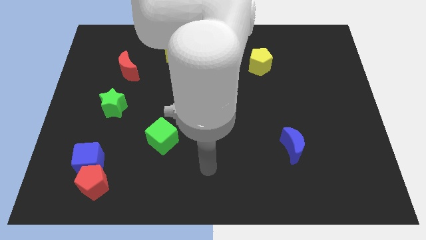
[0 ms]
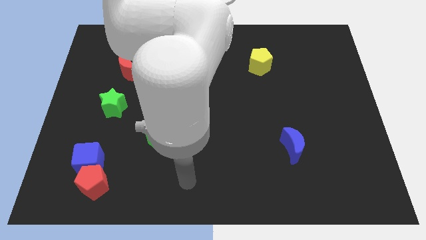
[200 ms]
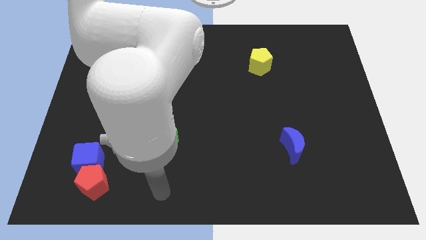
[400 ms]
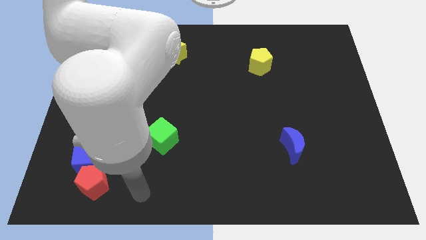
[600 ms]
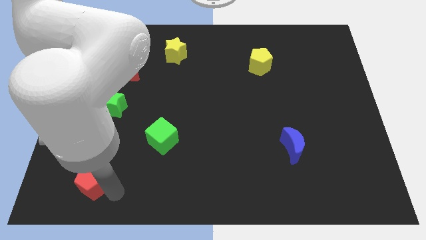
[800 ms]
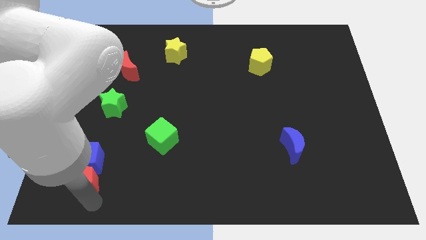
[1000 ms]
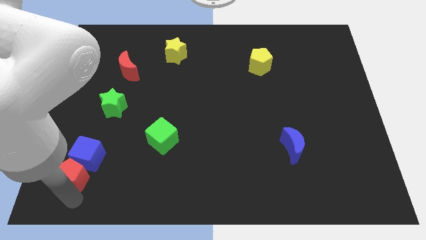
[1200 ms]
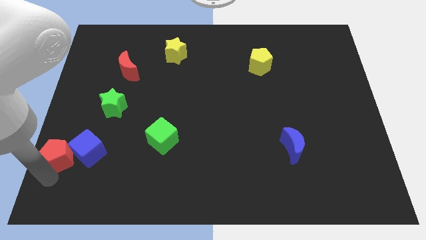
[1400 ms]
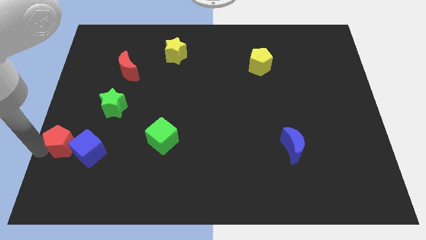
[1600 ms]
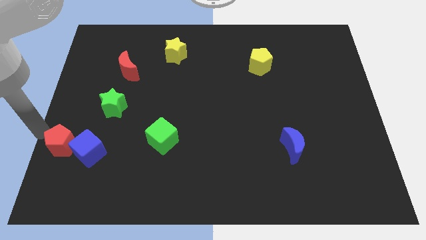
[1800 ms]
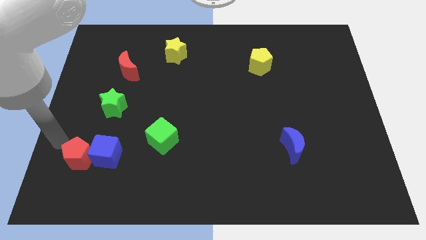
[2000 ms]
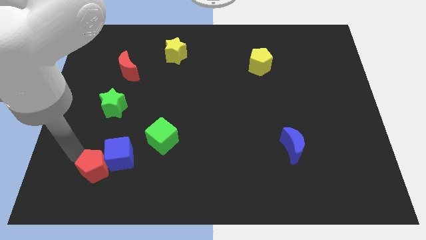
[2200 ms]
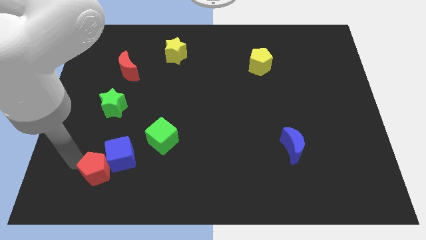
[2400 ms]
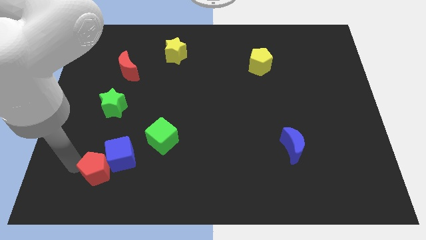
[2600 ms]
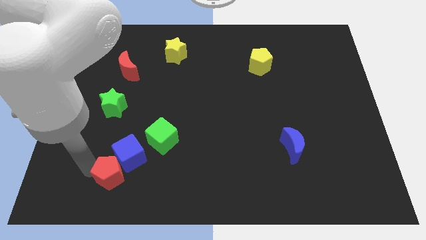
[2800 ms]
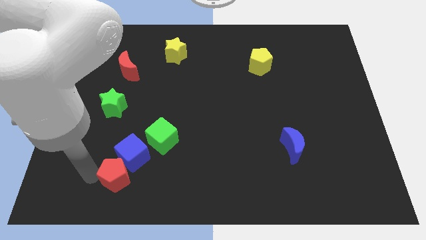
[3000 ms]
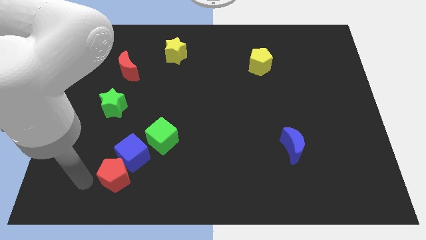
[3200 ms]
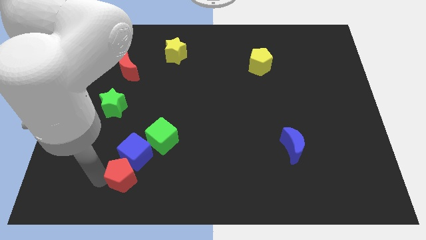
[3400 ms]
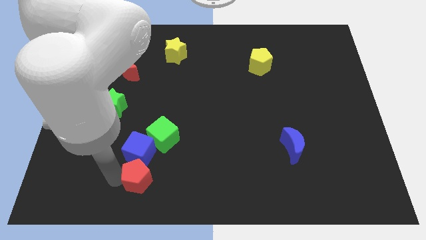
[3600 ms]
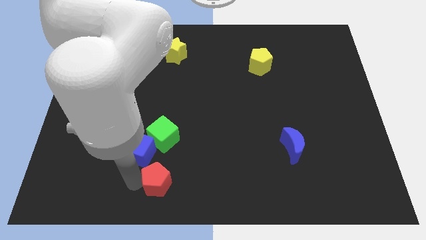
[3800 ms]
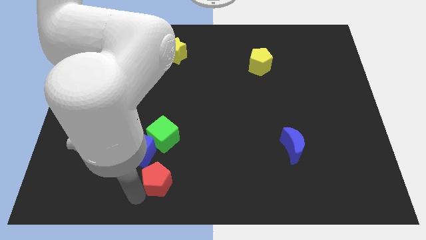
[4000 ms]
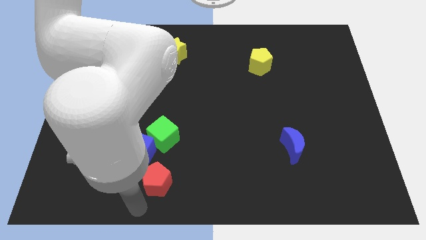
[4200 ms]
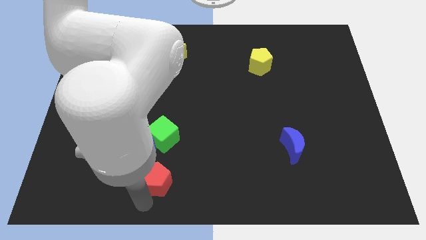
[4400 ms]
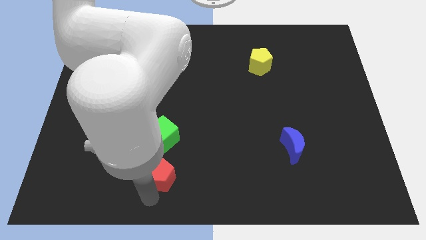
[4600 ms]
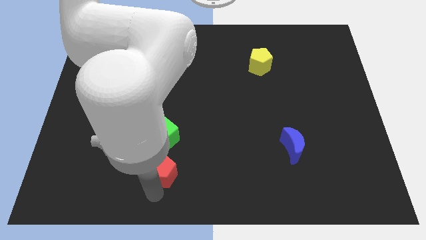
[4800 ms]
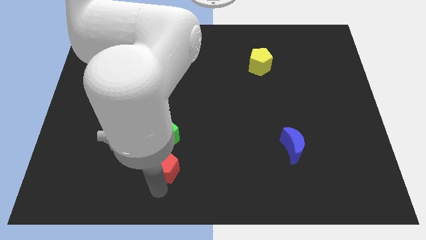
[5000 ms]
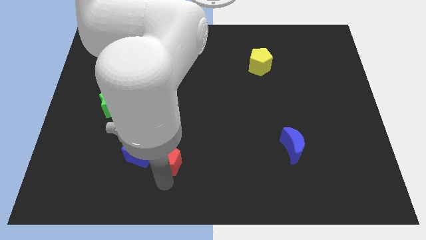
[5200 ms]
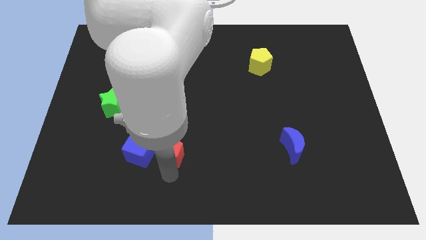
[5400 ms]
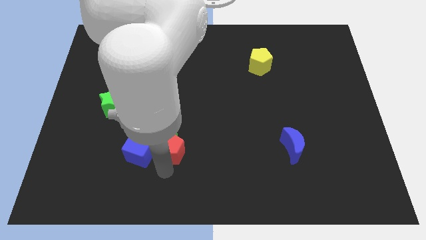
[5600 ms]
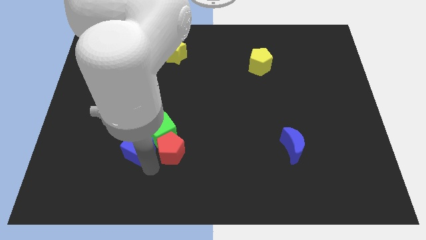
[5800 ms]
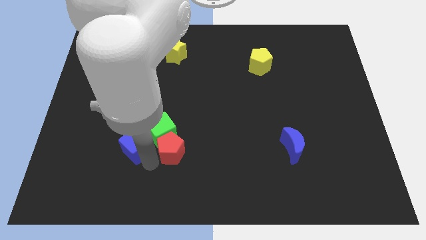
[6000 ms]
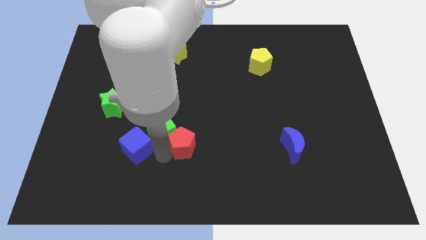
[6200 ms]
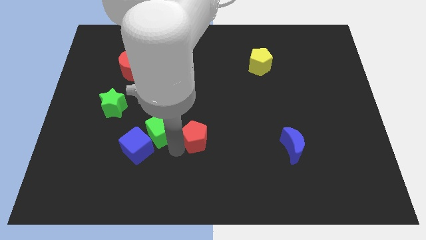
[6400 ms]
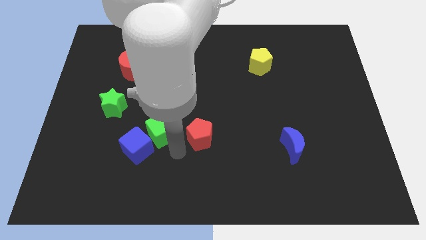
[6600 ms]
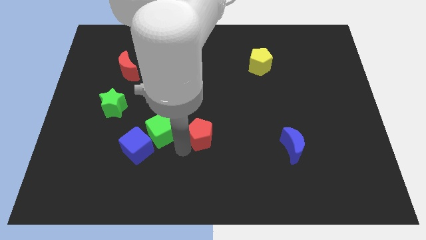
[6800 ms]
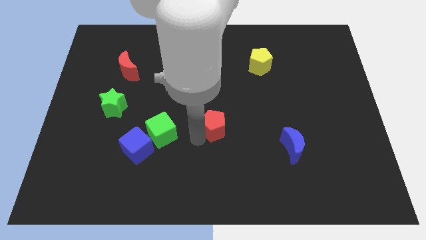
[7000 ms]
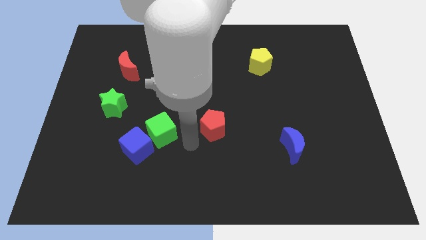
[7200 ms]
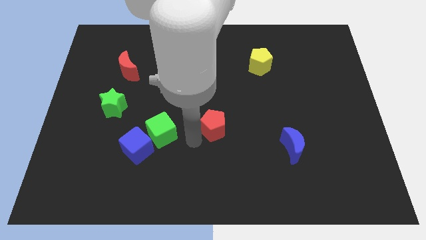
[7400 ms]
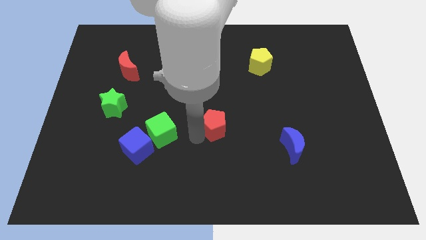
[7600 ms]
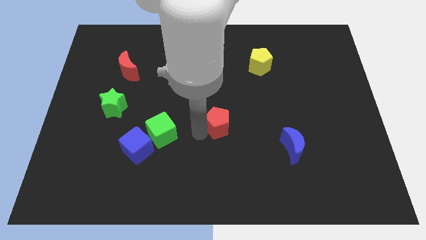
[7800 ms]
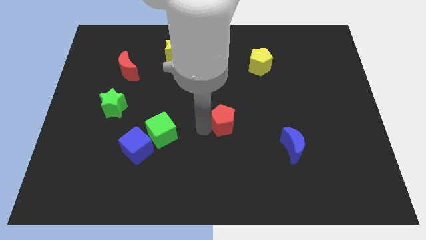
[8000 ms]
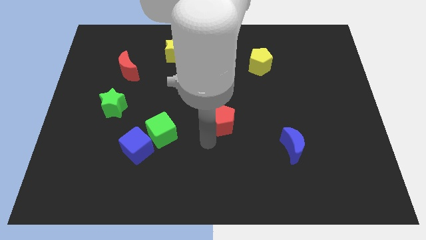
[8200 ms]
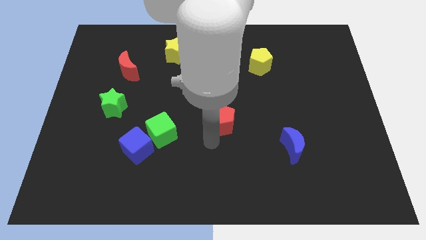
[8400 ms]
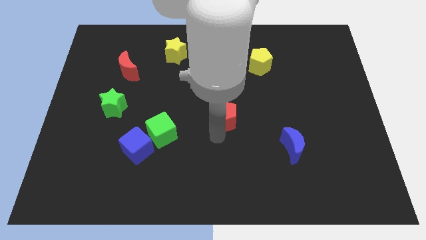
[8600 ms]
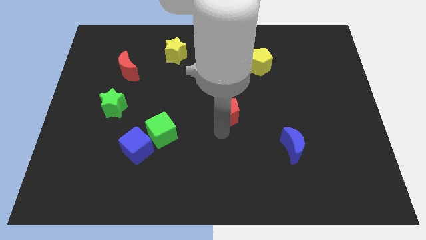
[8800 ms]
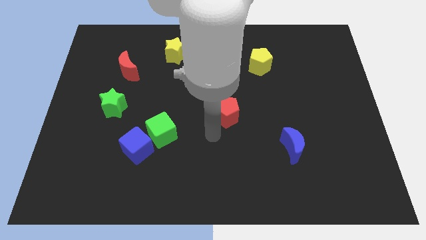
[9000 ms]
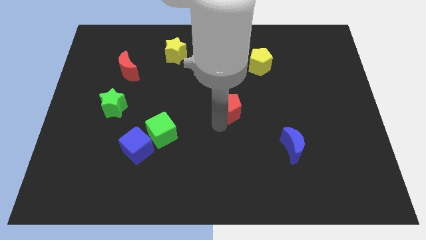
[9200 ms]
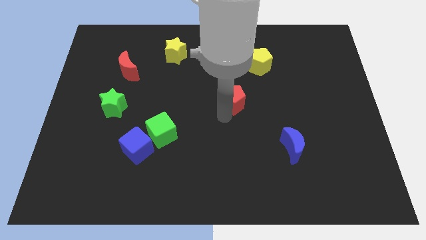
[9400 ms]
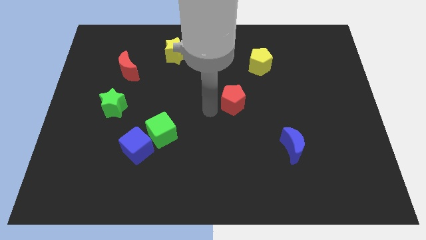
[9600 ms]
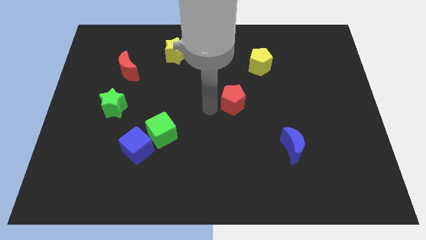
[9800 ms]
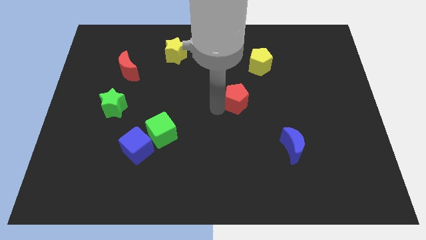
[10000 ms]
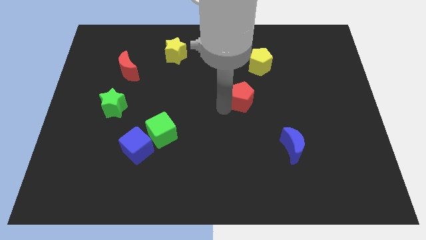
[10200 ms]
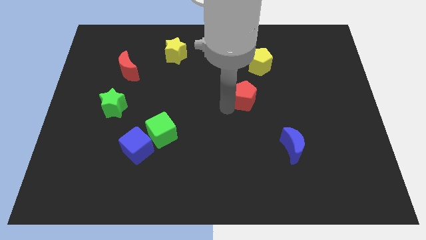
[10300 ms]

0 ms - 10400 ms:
slide the red pentagon to the bottom side of the yellow pentagon

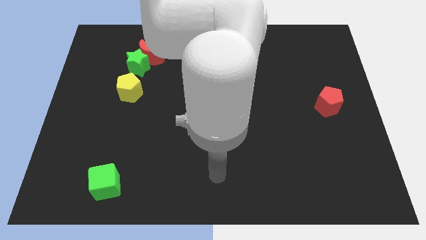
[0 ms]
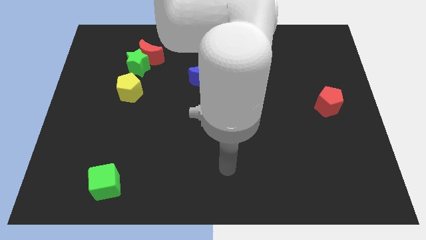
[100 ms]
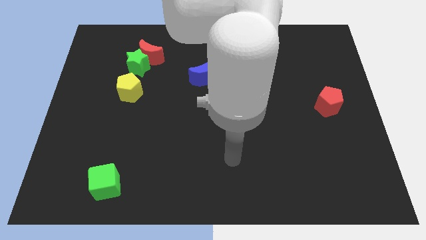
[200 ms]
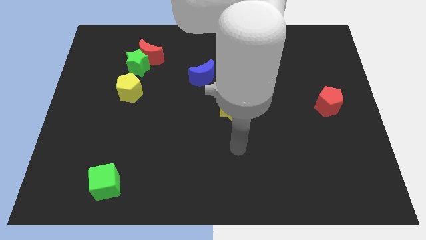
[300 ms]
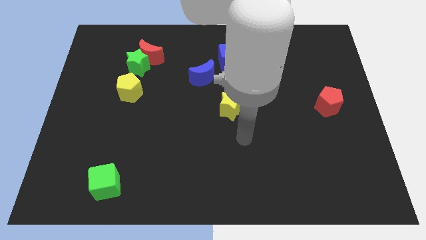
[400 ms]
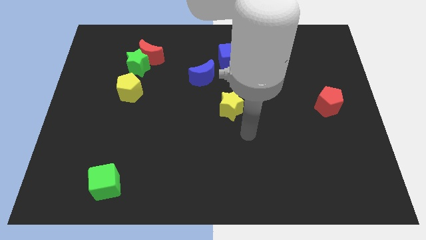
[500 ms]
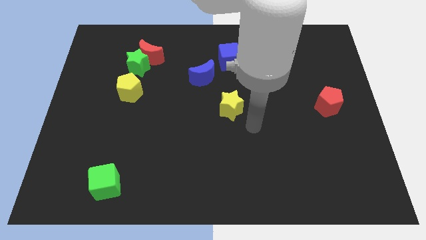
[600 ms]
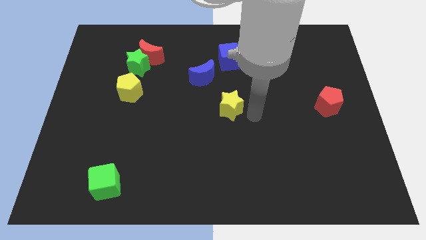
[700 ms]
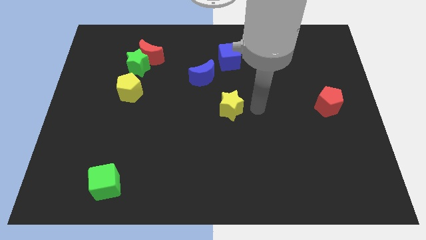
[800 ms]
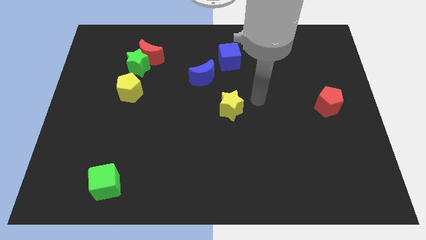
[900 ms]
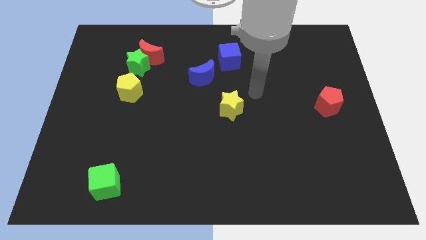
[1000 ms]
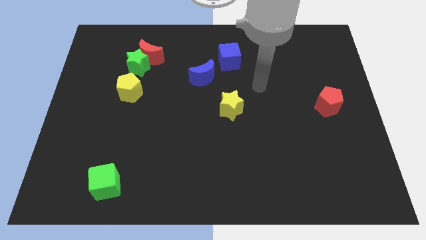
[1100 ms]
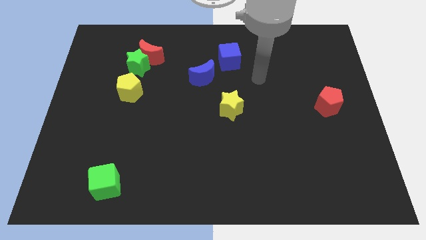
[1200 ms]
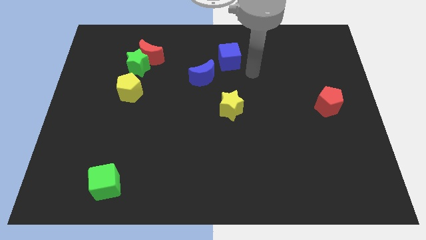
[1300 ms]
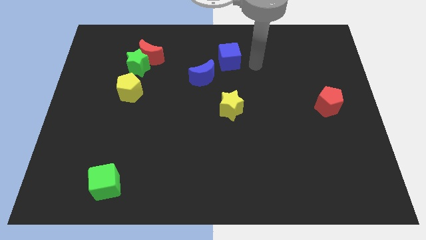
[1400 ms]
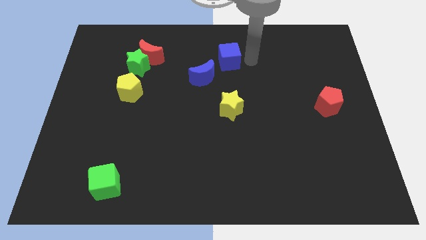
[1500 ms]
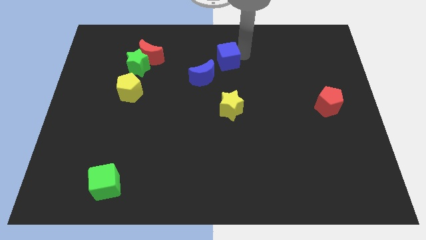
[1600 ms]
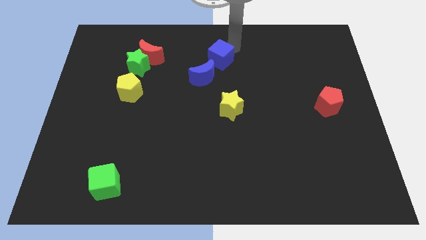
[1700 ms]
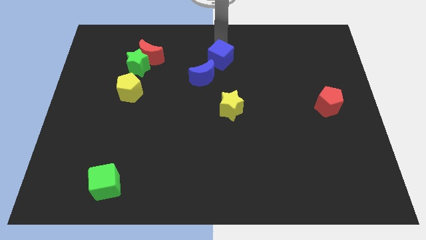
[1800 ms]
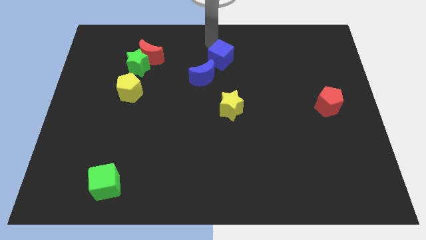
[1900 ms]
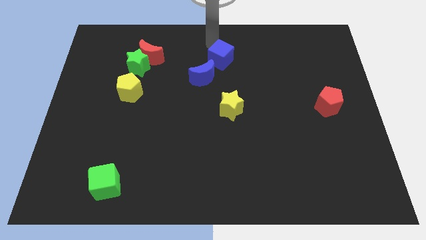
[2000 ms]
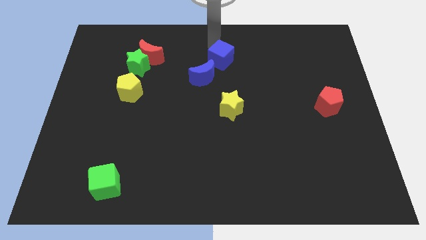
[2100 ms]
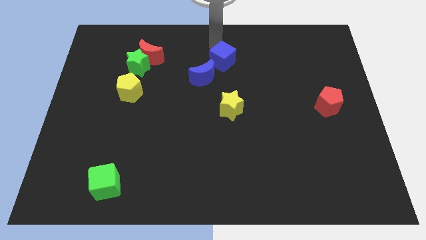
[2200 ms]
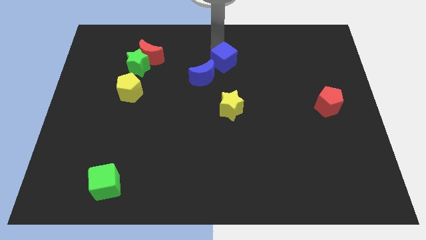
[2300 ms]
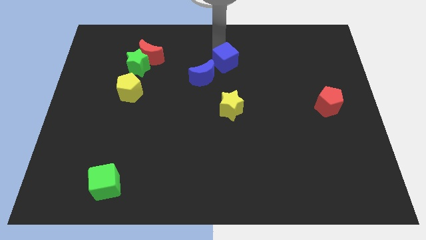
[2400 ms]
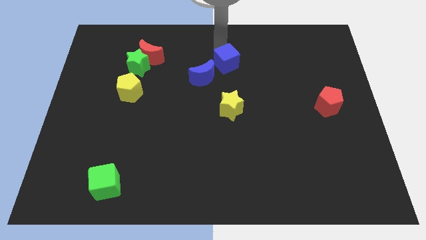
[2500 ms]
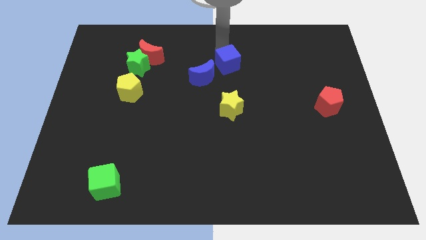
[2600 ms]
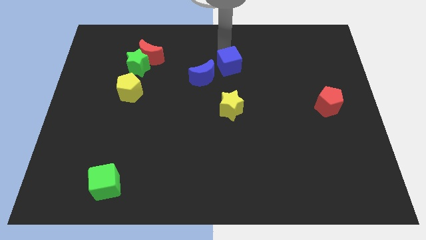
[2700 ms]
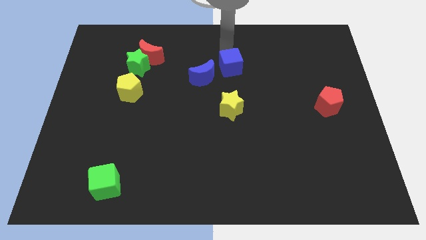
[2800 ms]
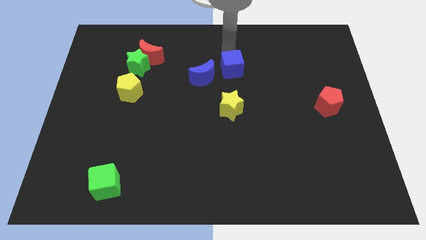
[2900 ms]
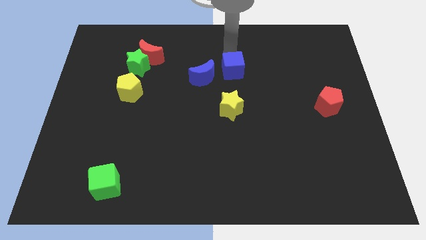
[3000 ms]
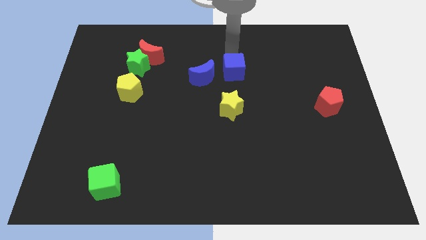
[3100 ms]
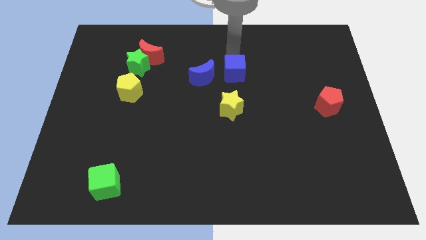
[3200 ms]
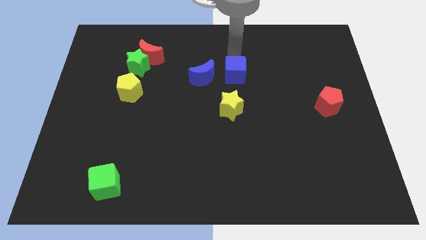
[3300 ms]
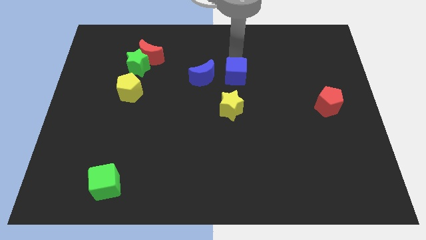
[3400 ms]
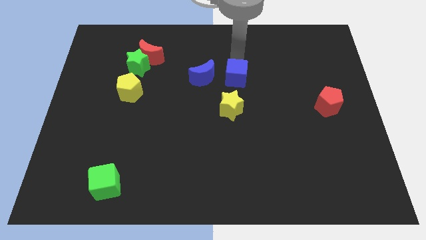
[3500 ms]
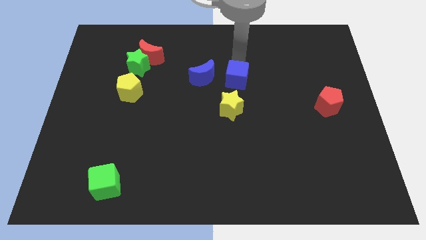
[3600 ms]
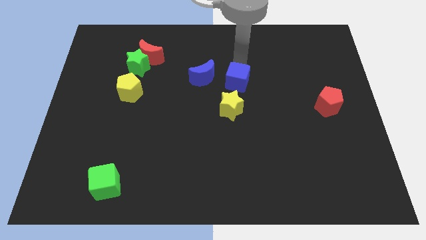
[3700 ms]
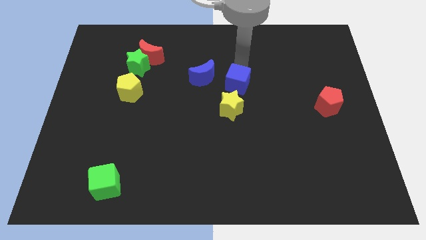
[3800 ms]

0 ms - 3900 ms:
slide the blue cube to the bottom right of the blue moon
